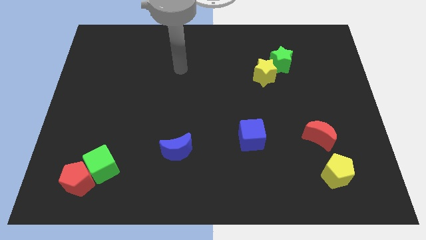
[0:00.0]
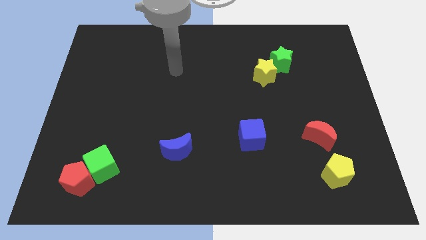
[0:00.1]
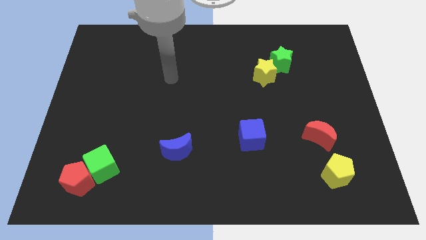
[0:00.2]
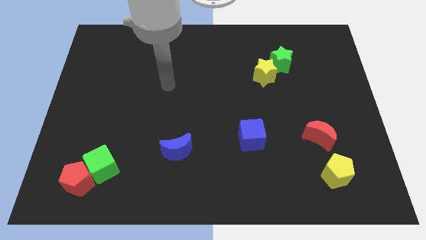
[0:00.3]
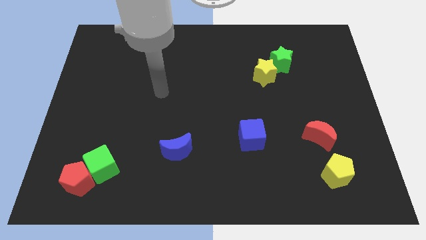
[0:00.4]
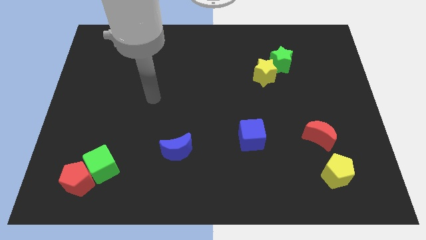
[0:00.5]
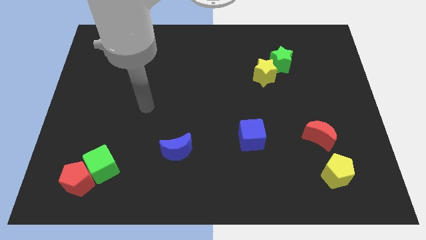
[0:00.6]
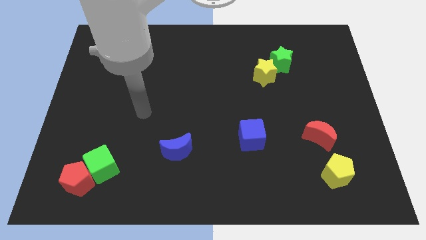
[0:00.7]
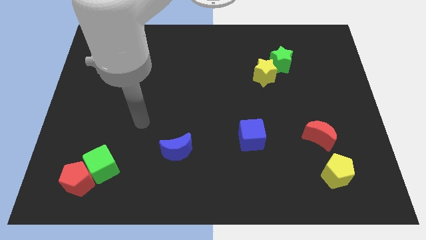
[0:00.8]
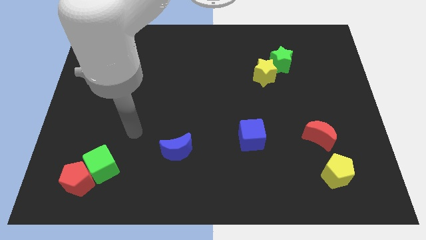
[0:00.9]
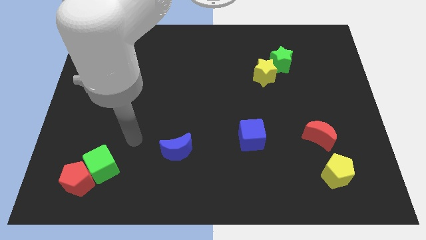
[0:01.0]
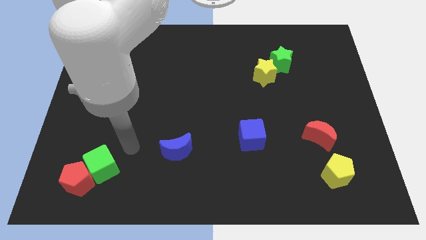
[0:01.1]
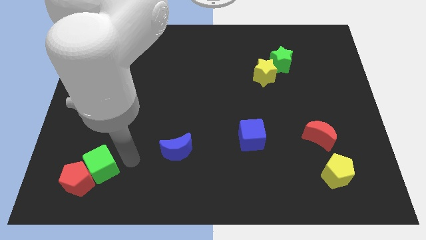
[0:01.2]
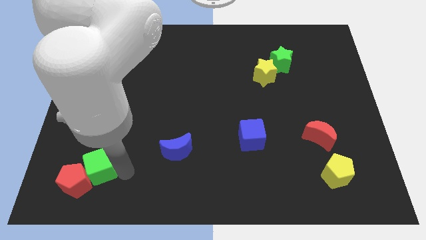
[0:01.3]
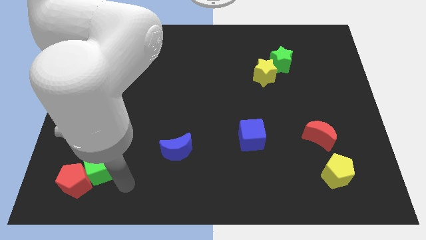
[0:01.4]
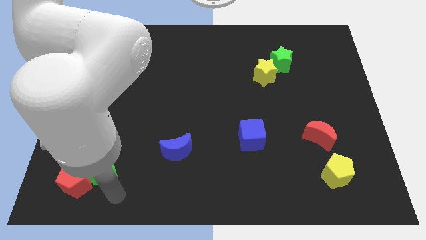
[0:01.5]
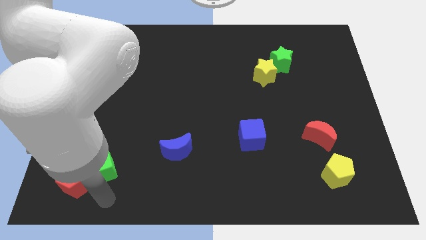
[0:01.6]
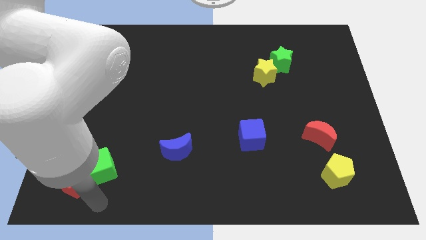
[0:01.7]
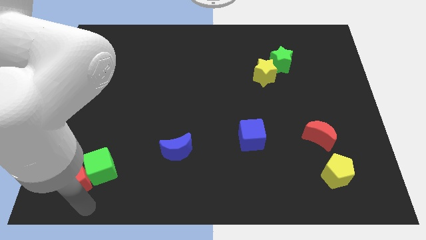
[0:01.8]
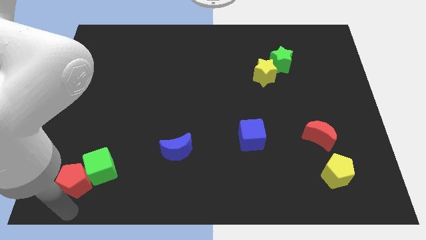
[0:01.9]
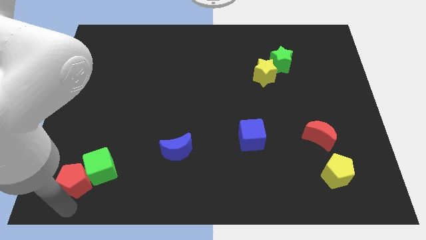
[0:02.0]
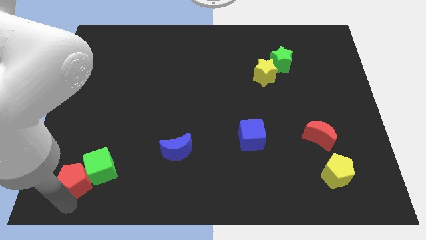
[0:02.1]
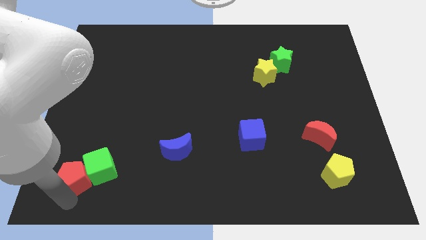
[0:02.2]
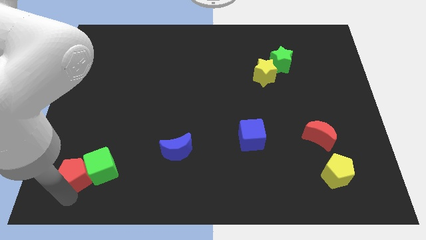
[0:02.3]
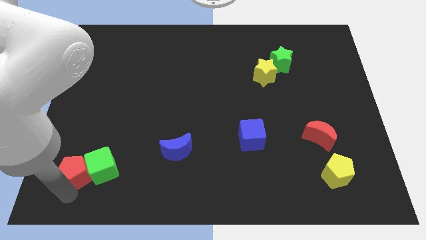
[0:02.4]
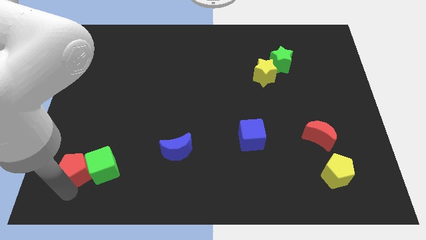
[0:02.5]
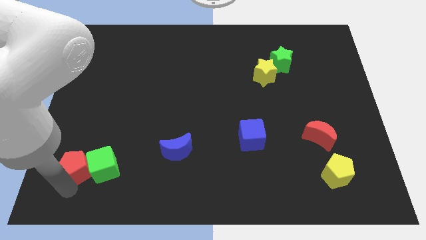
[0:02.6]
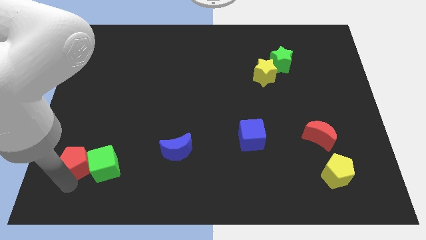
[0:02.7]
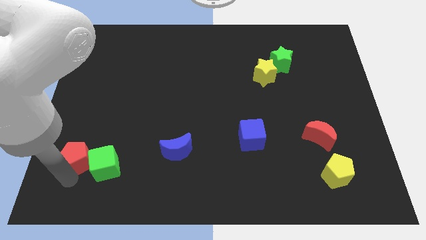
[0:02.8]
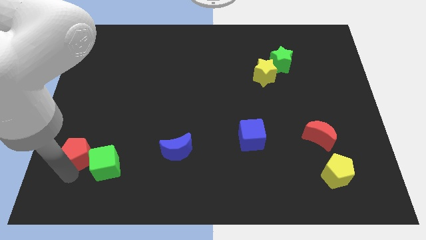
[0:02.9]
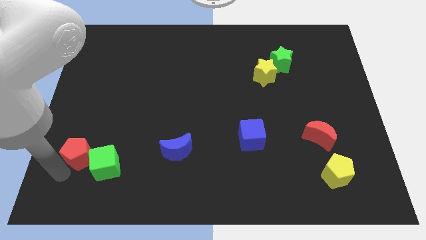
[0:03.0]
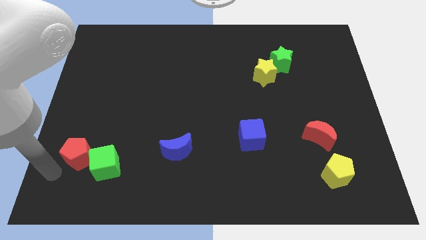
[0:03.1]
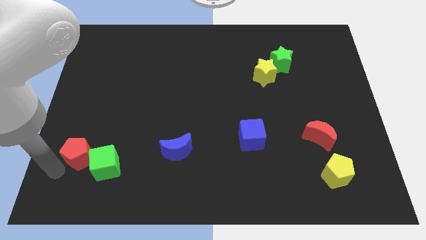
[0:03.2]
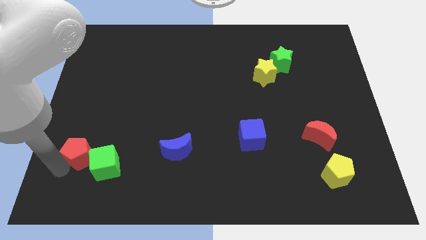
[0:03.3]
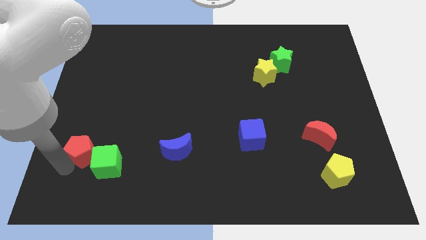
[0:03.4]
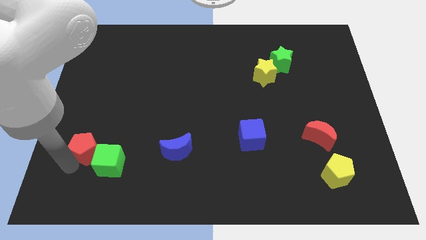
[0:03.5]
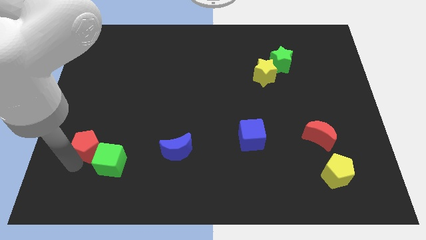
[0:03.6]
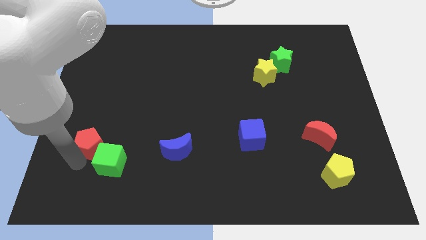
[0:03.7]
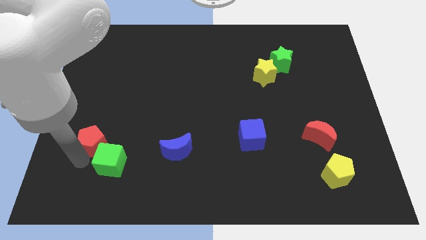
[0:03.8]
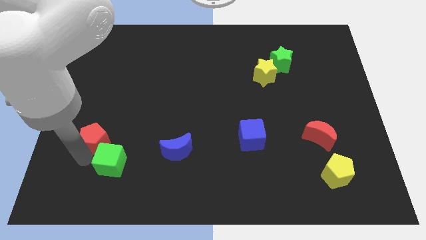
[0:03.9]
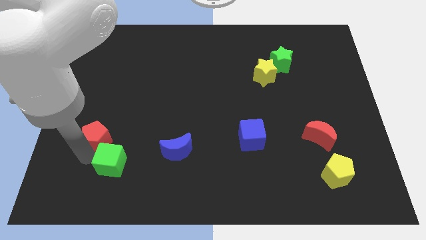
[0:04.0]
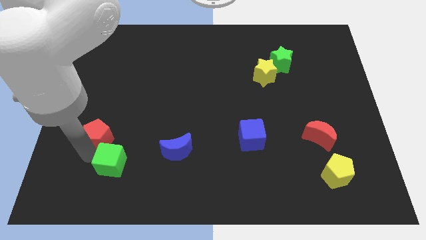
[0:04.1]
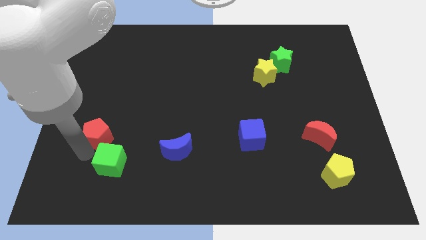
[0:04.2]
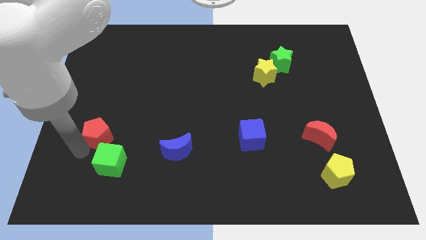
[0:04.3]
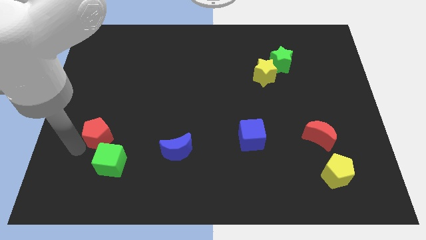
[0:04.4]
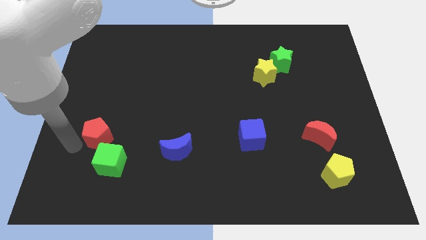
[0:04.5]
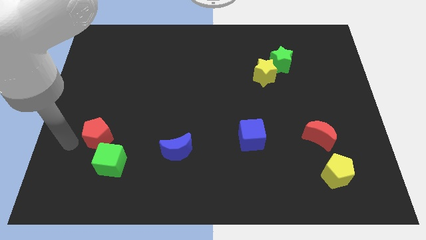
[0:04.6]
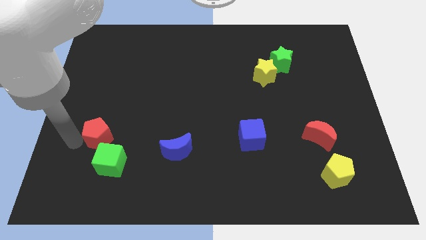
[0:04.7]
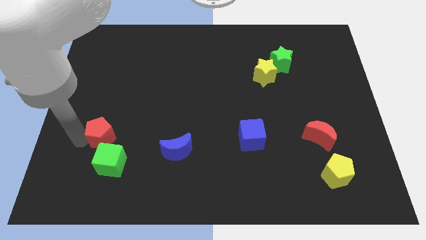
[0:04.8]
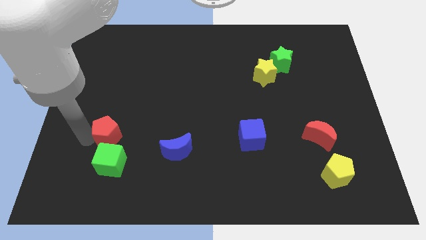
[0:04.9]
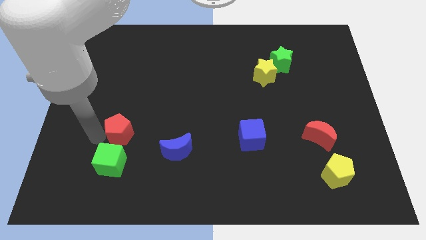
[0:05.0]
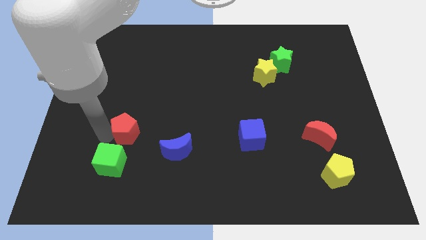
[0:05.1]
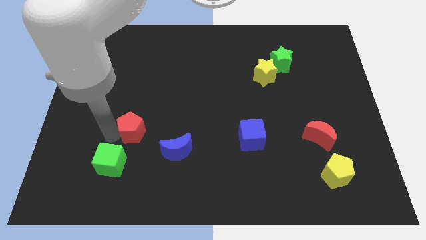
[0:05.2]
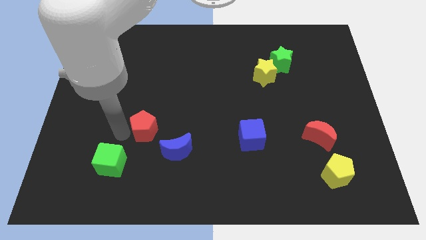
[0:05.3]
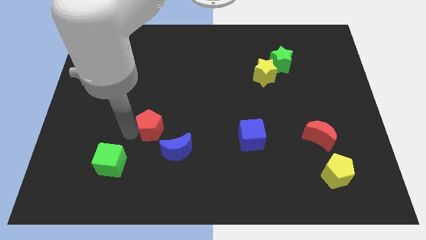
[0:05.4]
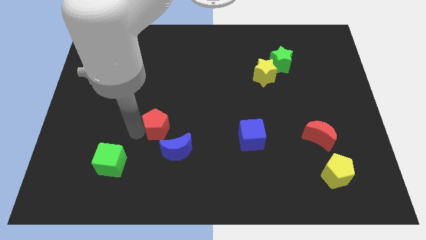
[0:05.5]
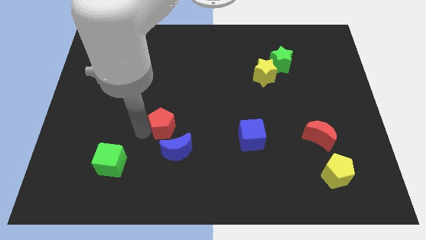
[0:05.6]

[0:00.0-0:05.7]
move the red pentagon upwards and right diagonally

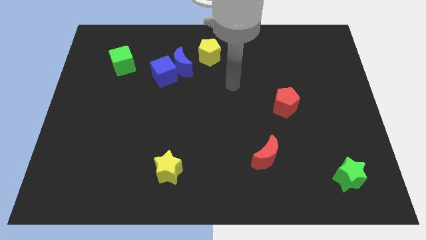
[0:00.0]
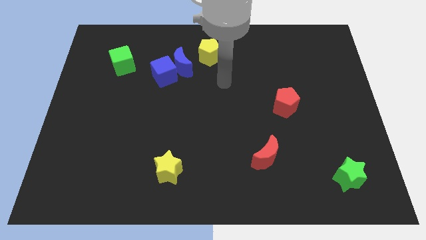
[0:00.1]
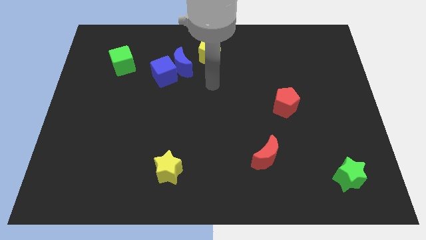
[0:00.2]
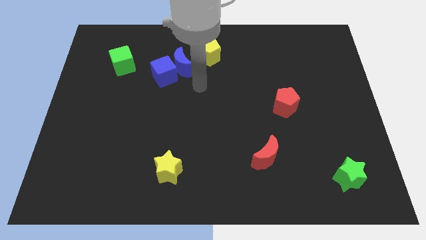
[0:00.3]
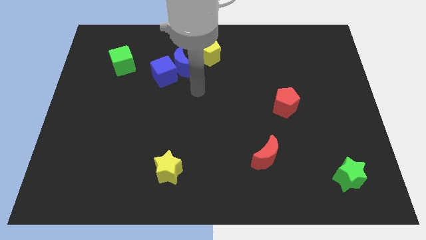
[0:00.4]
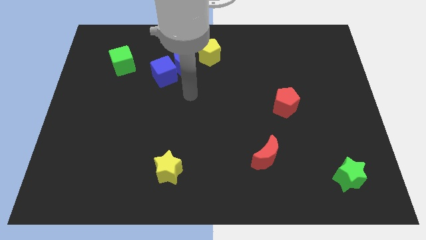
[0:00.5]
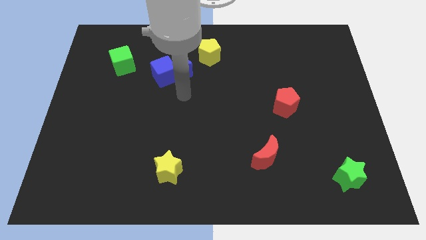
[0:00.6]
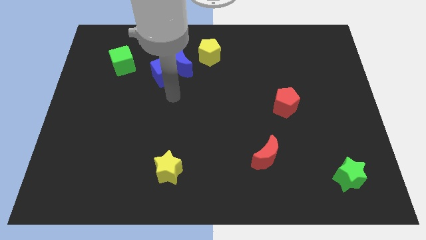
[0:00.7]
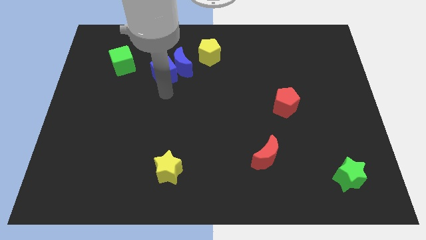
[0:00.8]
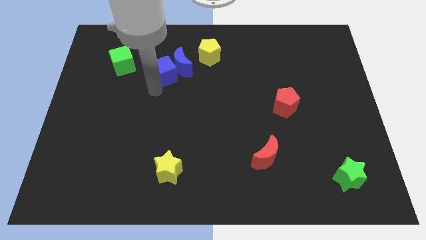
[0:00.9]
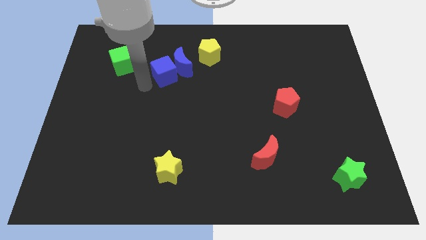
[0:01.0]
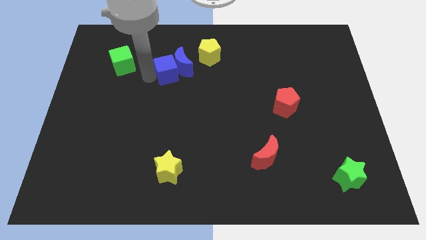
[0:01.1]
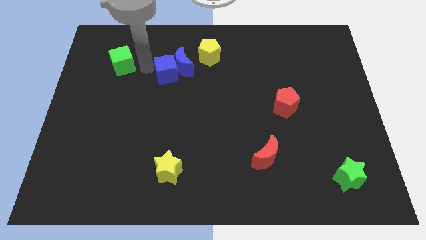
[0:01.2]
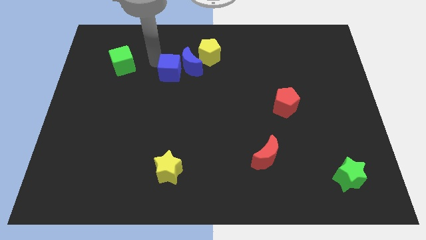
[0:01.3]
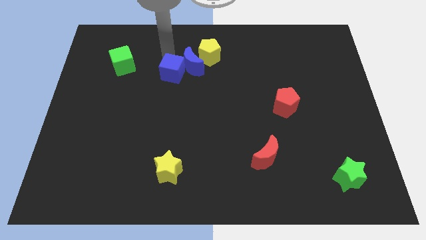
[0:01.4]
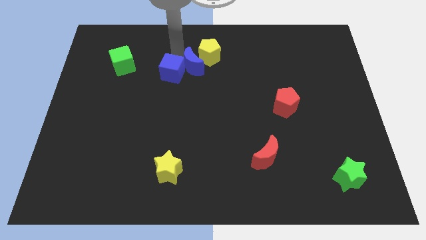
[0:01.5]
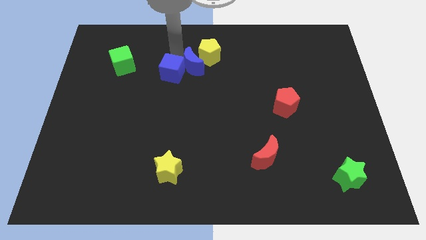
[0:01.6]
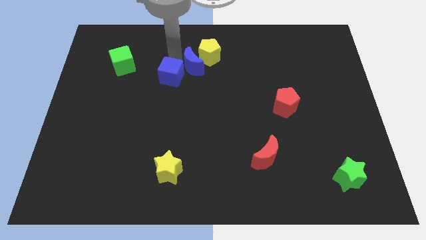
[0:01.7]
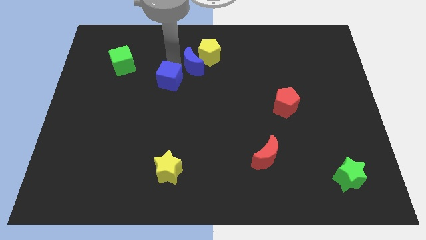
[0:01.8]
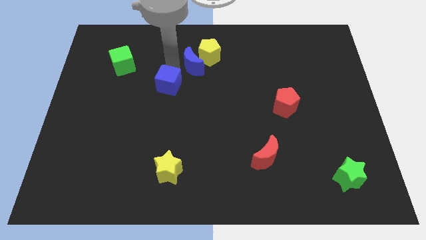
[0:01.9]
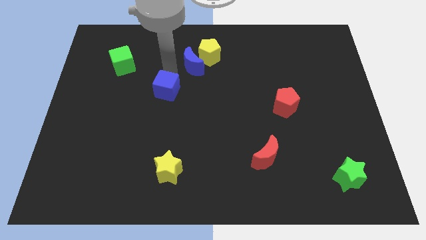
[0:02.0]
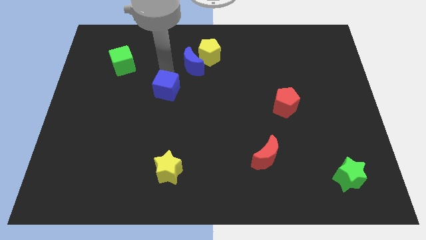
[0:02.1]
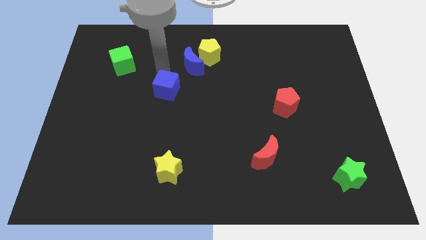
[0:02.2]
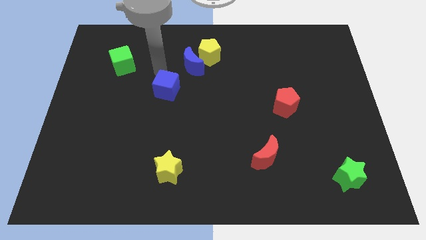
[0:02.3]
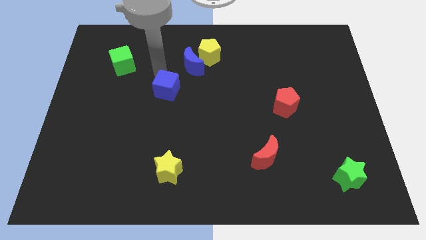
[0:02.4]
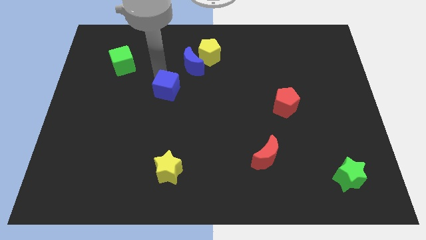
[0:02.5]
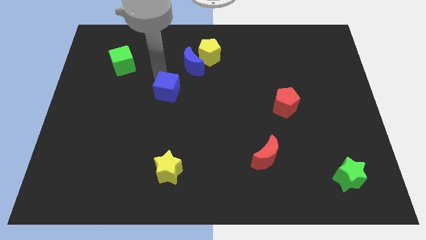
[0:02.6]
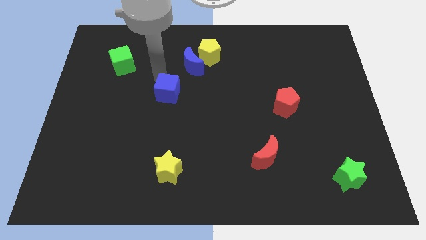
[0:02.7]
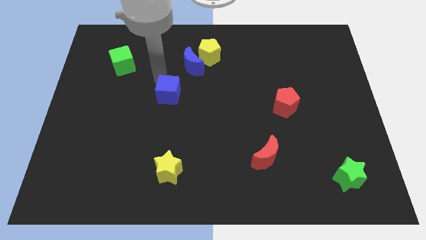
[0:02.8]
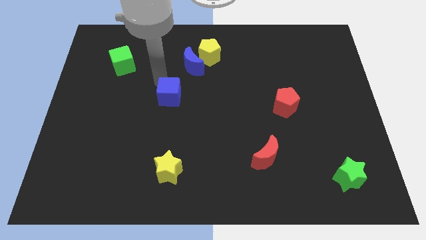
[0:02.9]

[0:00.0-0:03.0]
slide the blue cube down a little bit

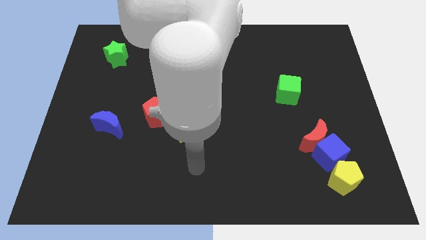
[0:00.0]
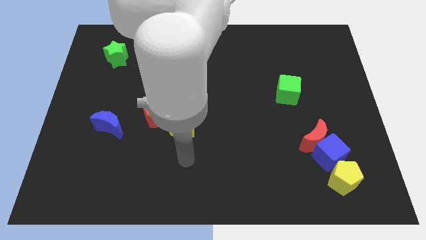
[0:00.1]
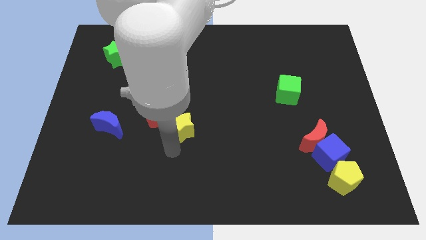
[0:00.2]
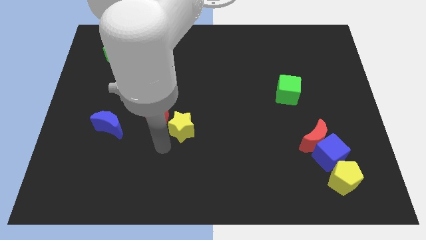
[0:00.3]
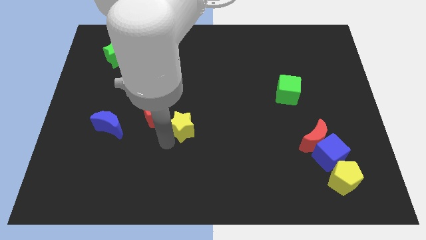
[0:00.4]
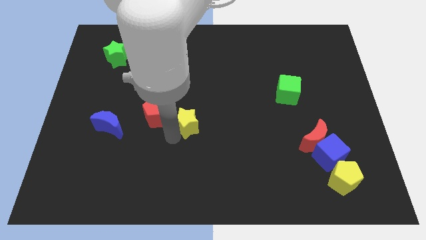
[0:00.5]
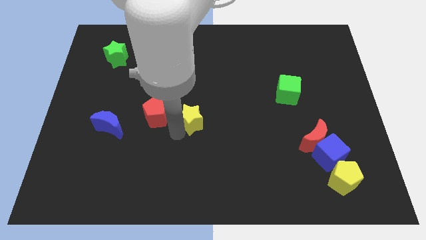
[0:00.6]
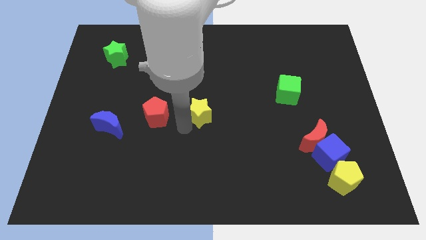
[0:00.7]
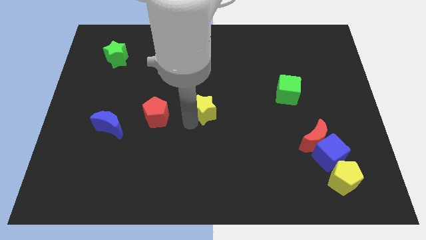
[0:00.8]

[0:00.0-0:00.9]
move the yellow star diagonally up and to the right a bit
